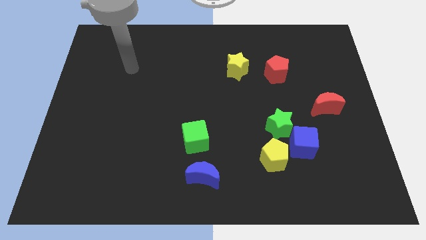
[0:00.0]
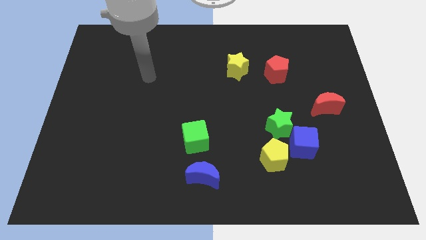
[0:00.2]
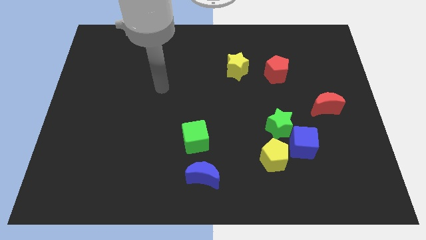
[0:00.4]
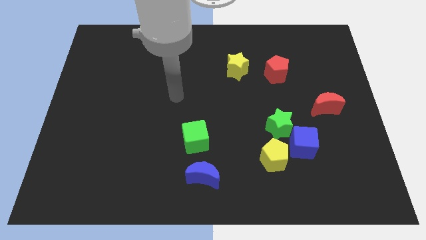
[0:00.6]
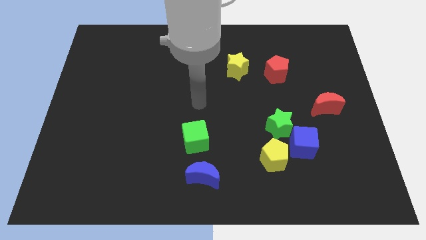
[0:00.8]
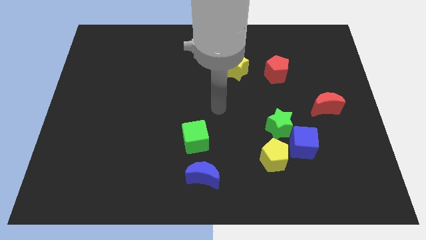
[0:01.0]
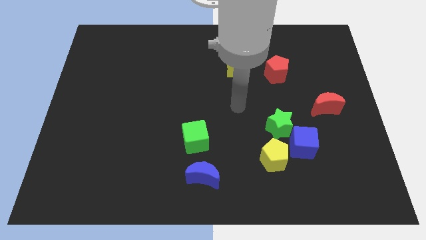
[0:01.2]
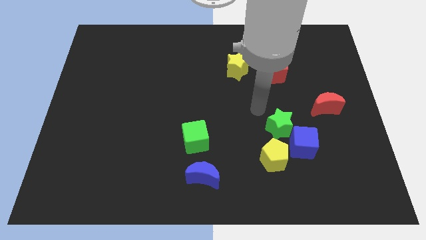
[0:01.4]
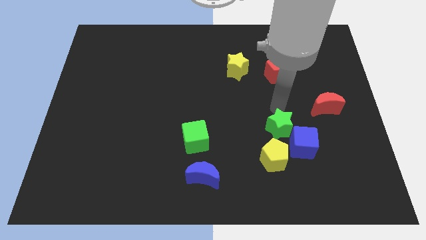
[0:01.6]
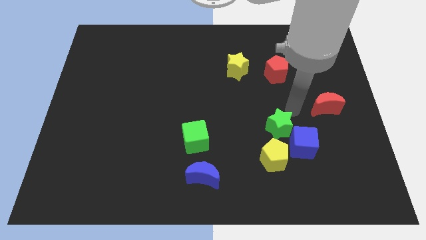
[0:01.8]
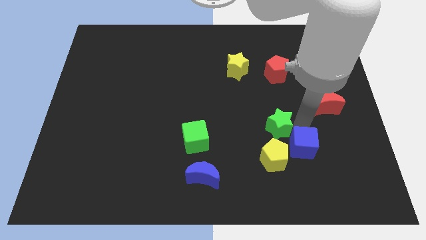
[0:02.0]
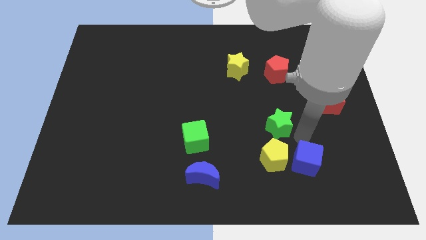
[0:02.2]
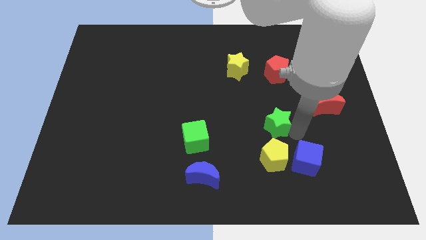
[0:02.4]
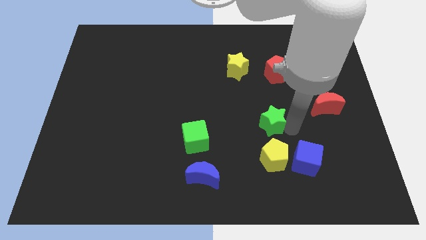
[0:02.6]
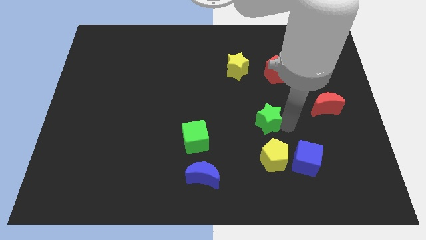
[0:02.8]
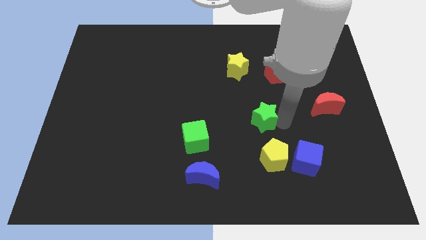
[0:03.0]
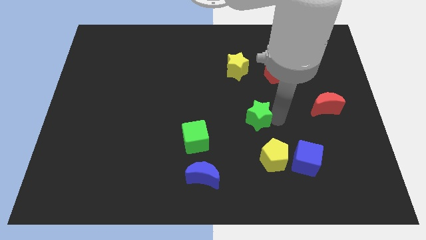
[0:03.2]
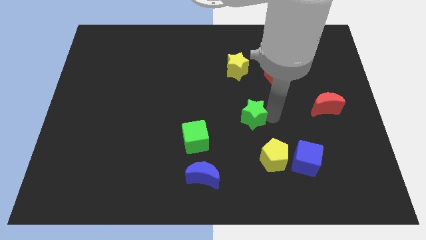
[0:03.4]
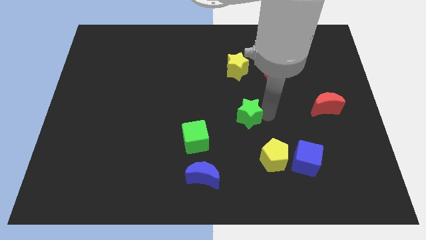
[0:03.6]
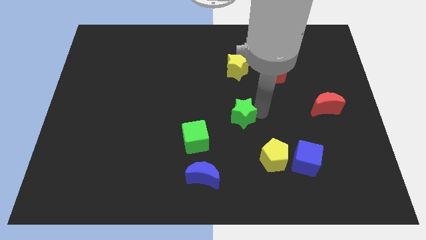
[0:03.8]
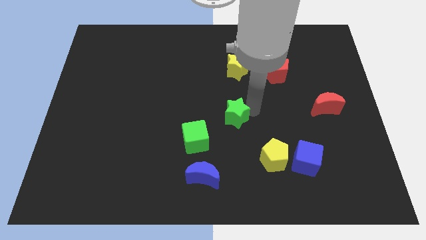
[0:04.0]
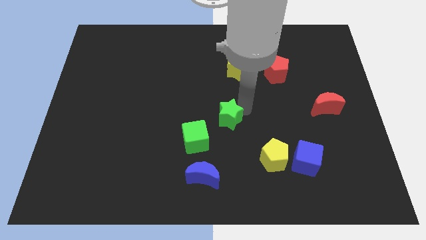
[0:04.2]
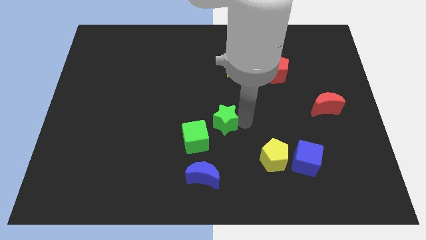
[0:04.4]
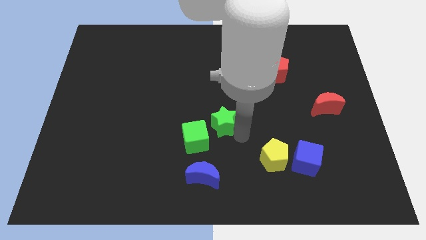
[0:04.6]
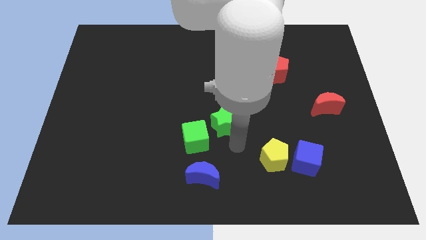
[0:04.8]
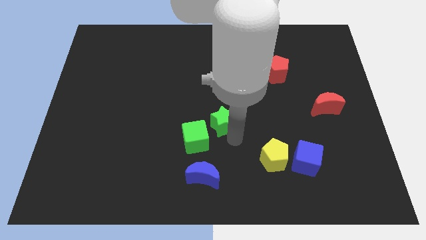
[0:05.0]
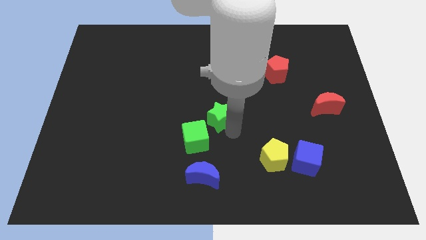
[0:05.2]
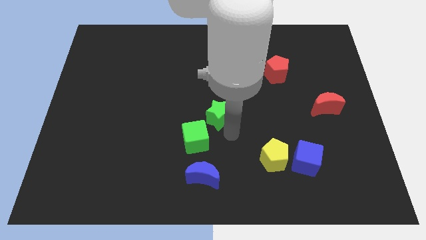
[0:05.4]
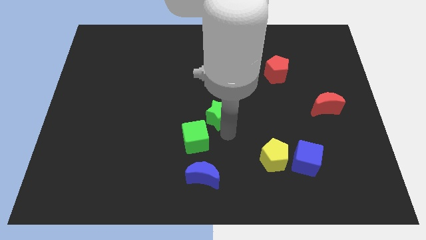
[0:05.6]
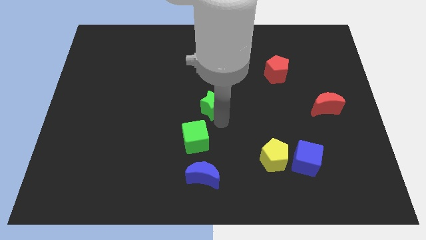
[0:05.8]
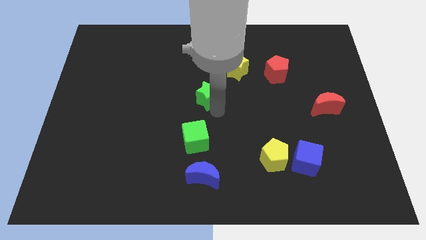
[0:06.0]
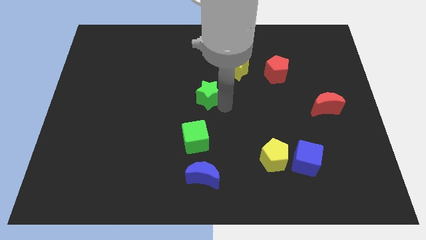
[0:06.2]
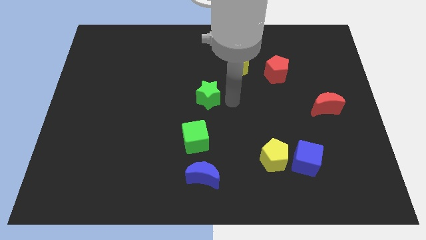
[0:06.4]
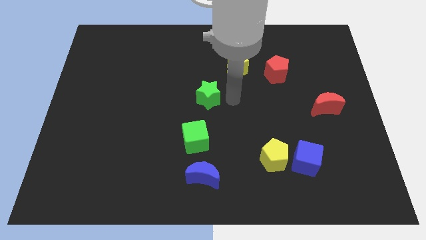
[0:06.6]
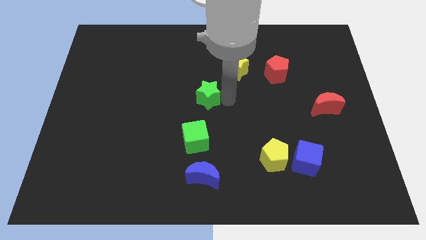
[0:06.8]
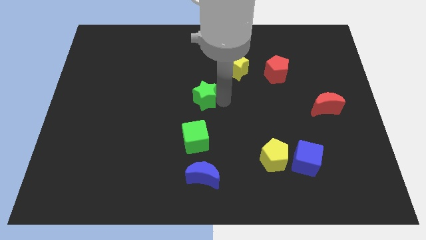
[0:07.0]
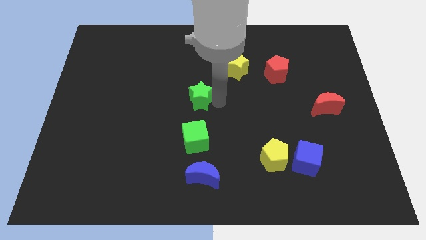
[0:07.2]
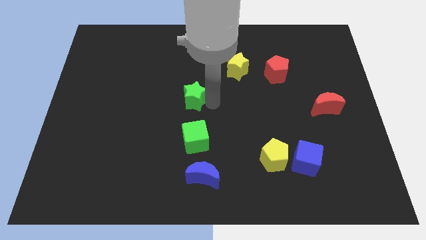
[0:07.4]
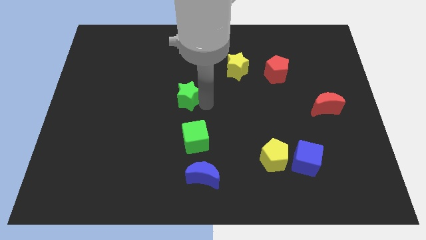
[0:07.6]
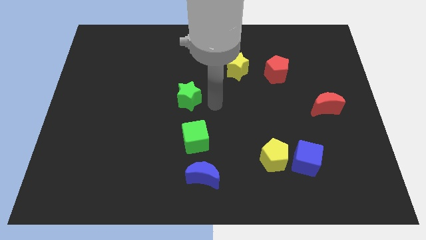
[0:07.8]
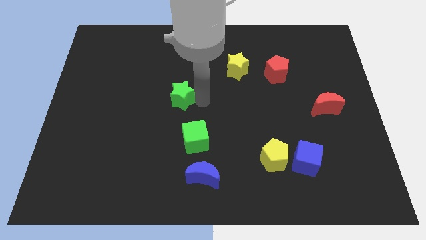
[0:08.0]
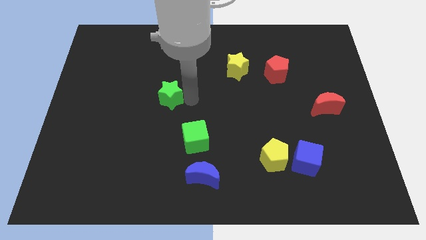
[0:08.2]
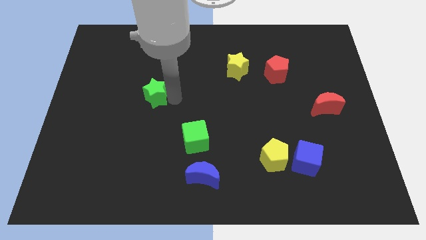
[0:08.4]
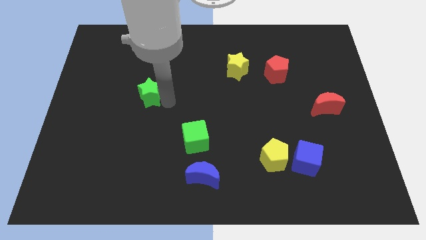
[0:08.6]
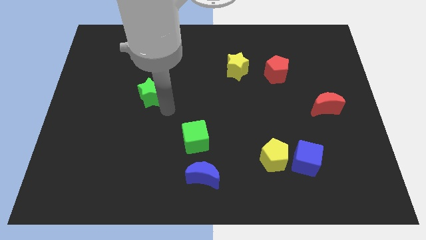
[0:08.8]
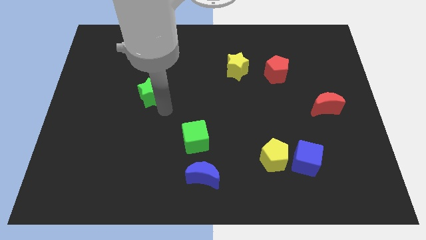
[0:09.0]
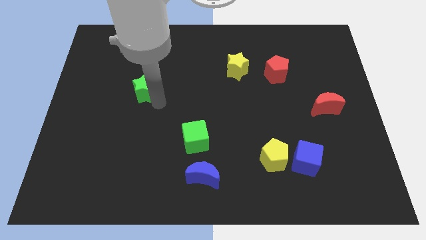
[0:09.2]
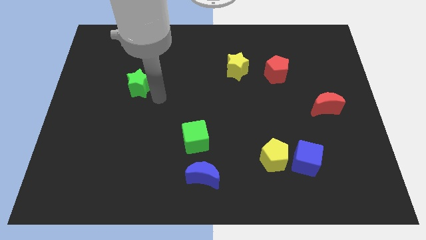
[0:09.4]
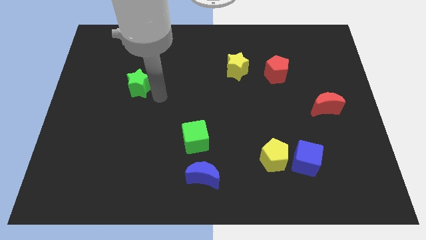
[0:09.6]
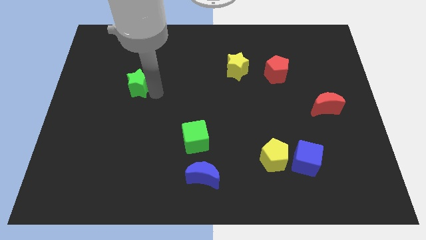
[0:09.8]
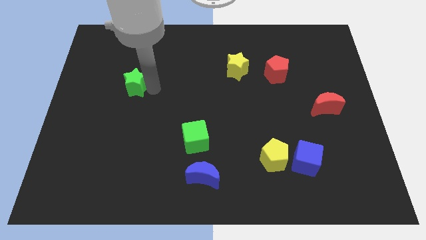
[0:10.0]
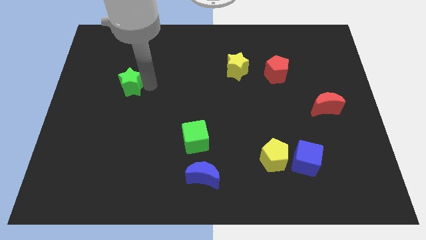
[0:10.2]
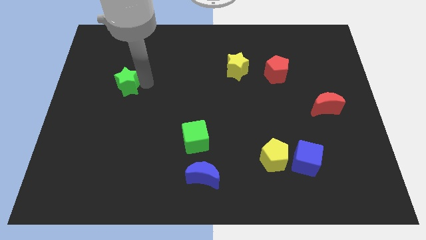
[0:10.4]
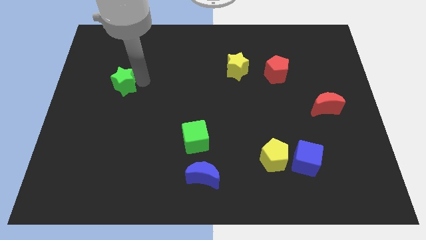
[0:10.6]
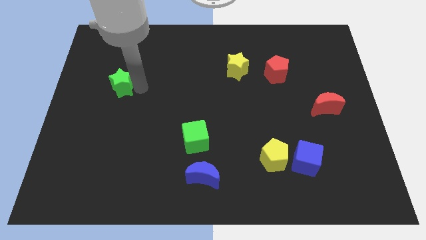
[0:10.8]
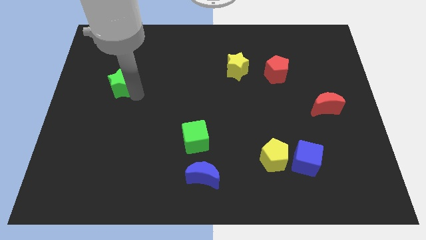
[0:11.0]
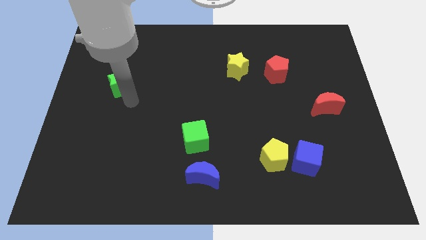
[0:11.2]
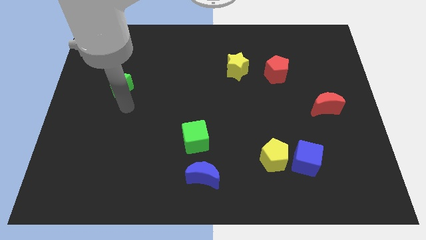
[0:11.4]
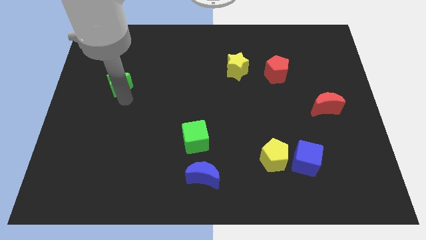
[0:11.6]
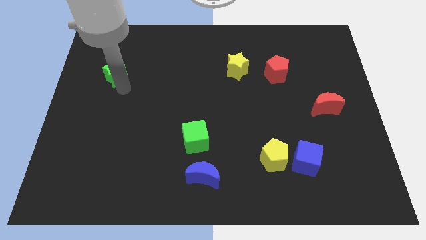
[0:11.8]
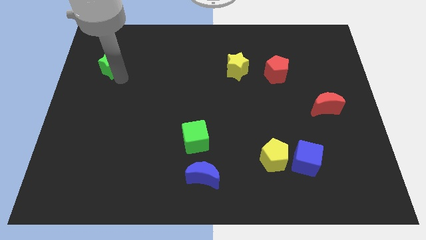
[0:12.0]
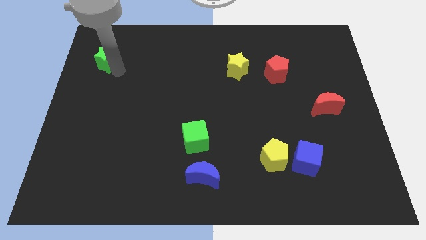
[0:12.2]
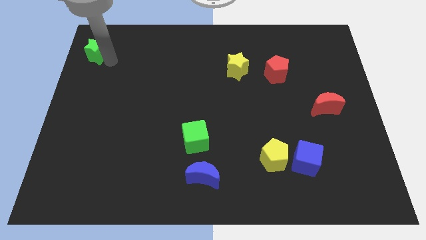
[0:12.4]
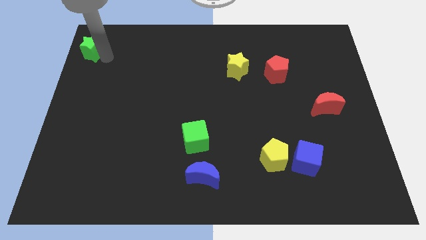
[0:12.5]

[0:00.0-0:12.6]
put the green star to the top left of the board
